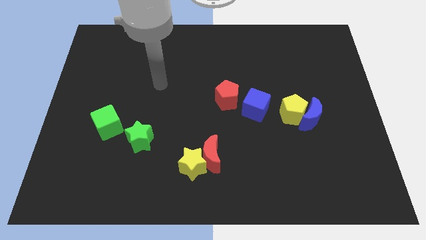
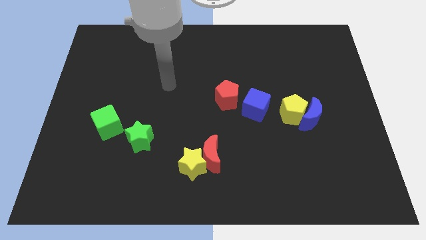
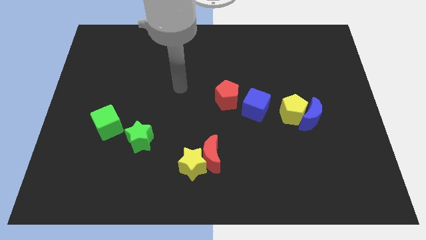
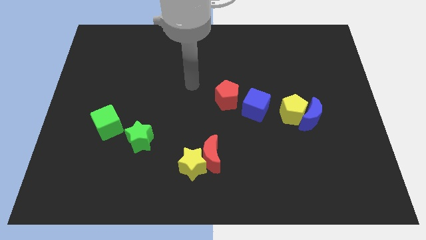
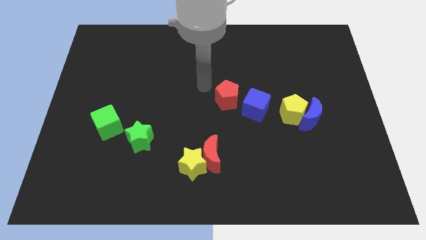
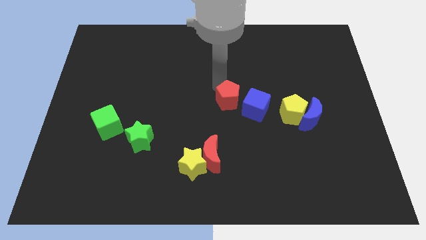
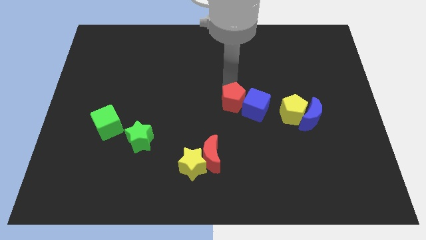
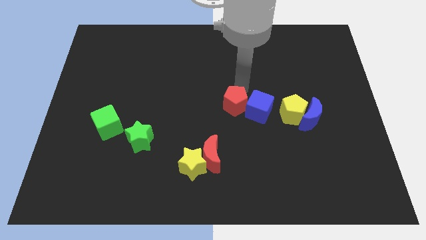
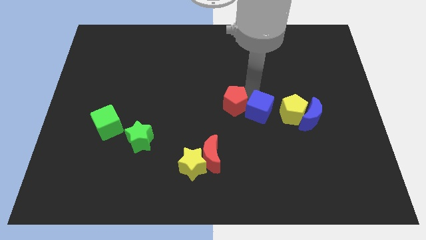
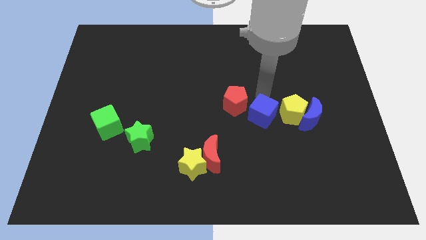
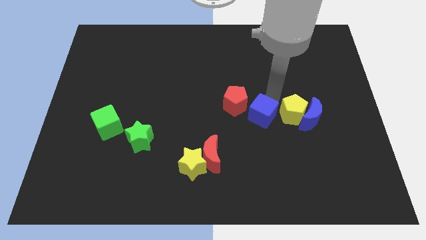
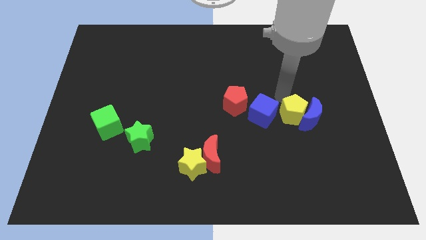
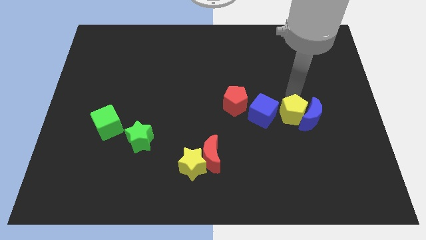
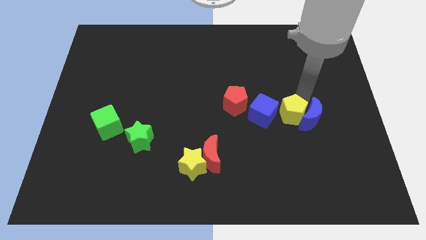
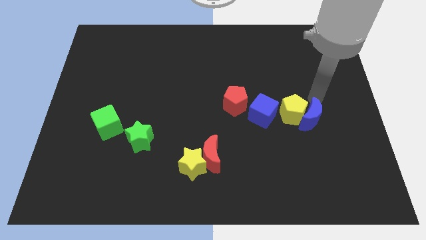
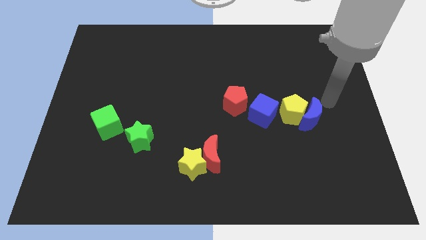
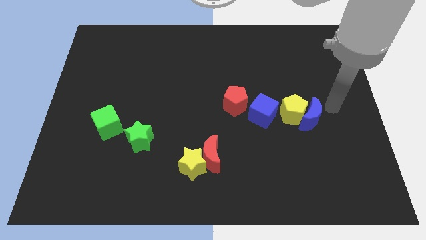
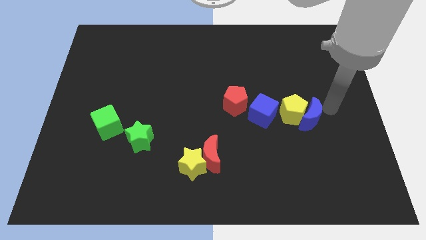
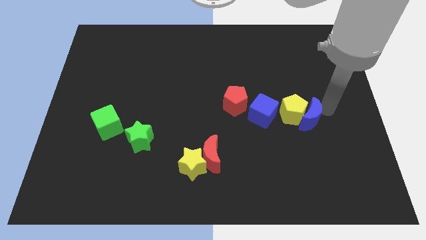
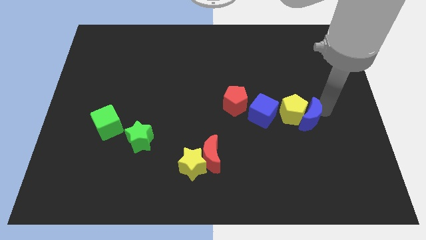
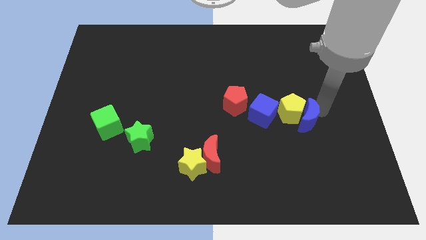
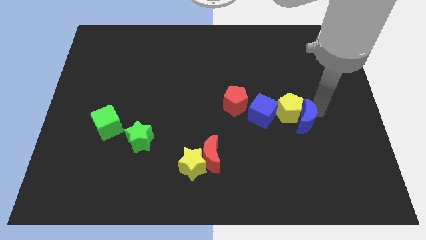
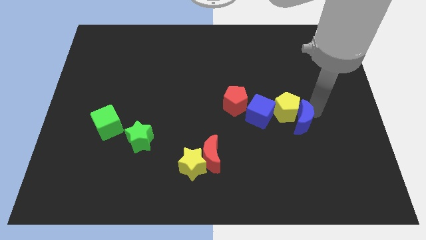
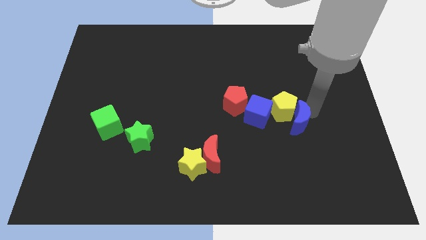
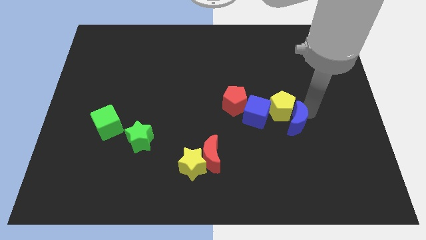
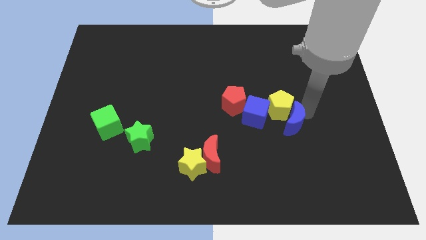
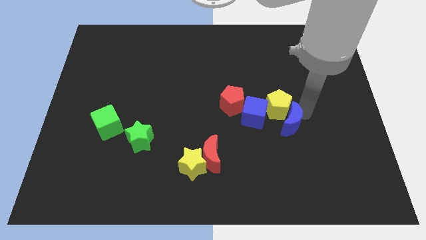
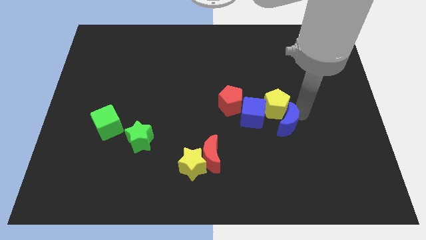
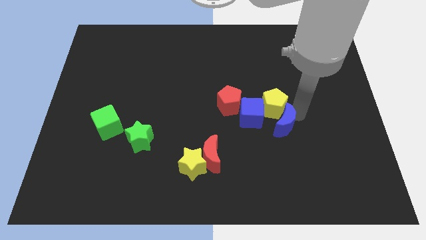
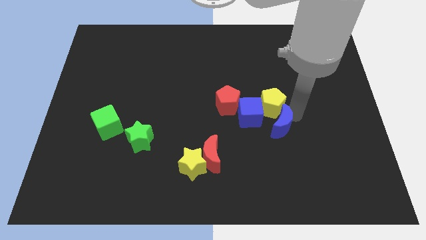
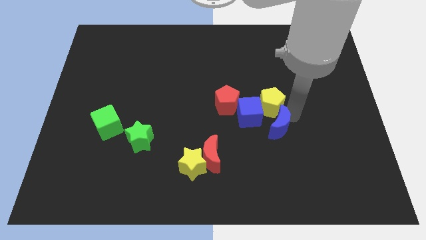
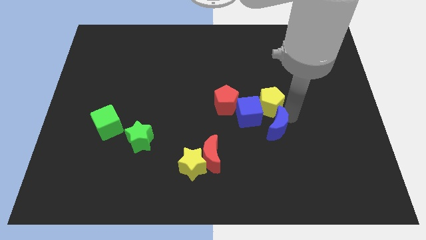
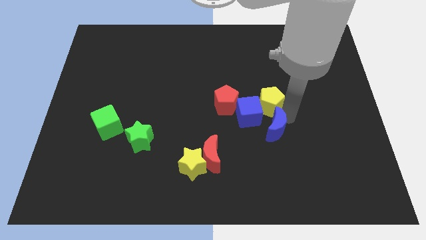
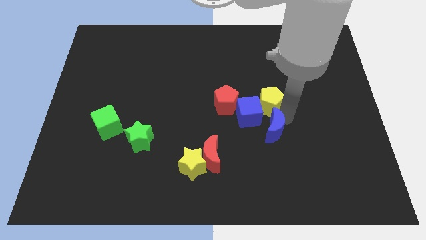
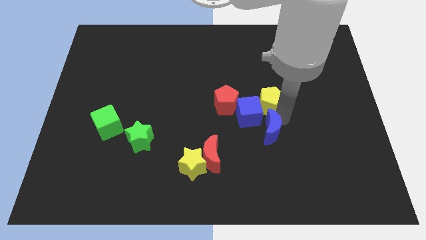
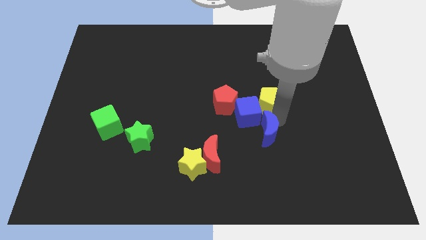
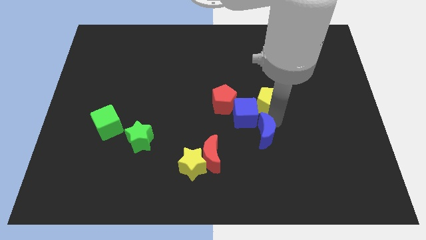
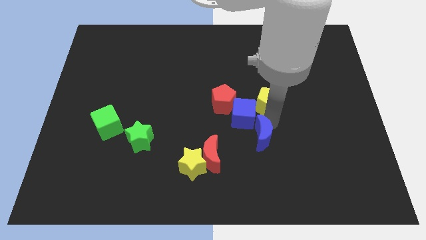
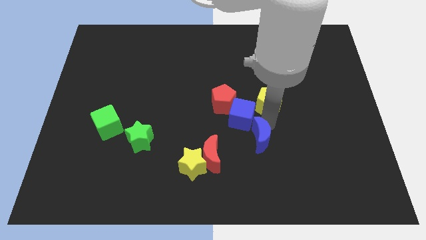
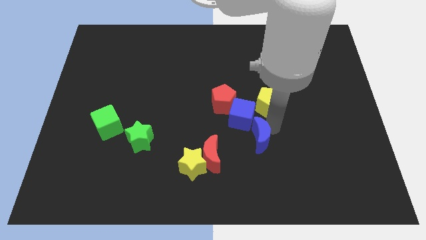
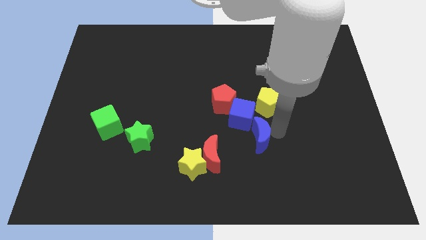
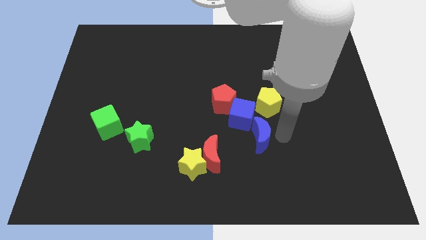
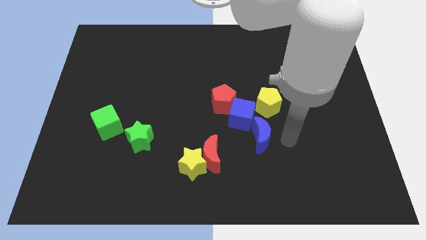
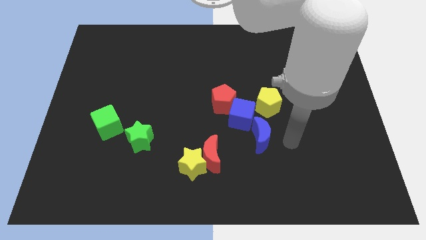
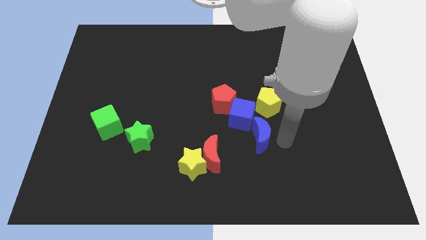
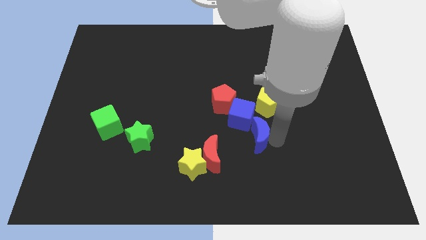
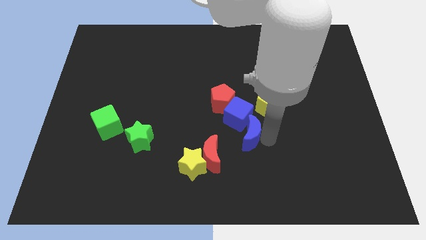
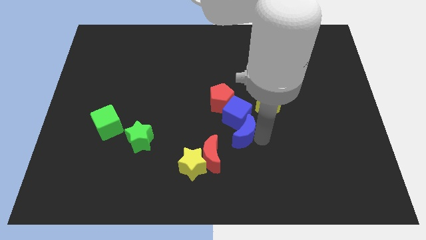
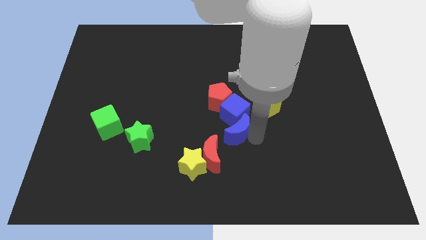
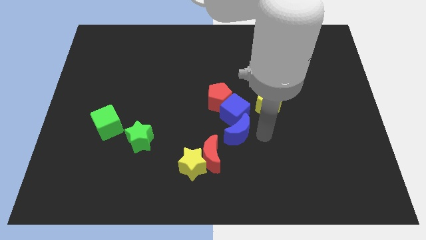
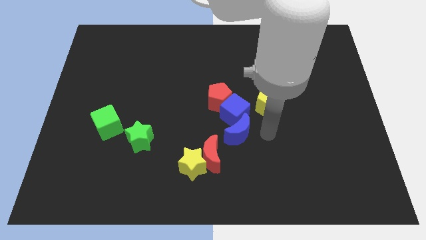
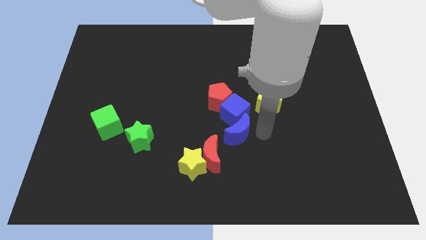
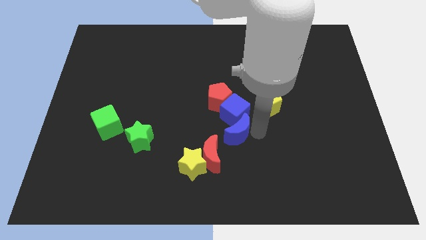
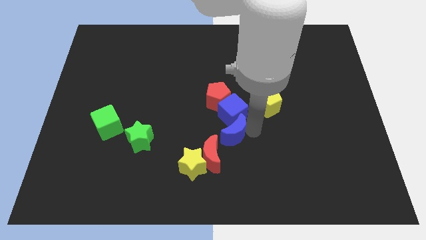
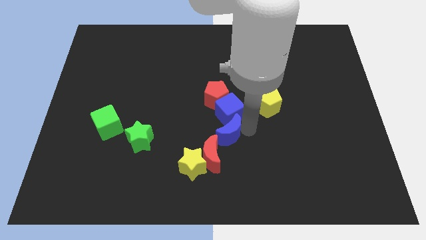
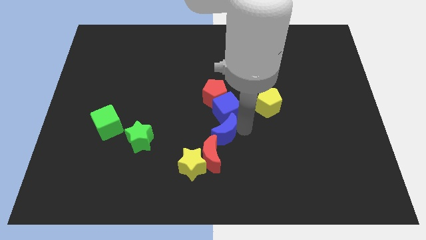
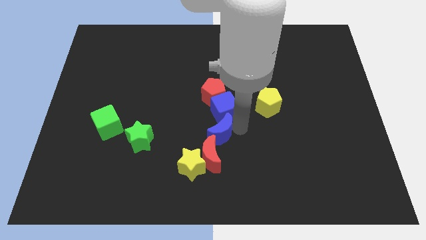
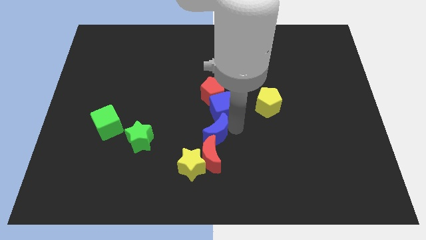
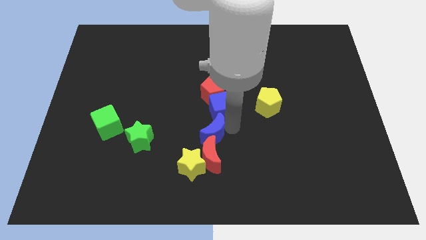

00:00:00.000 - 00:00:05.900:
slide the blue moon diagonally up and to the left of the red moon

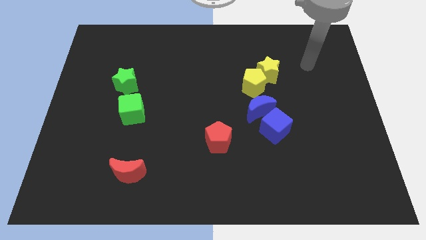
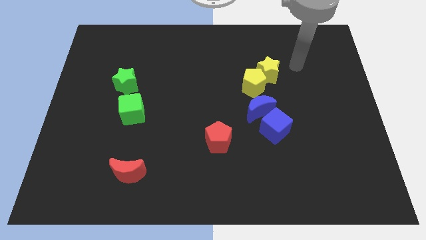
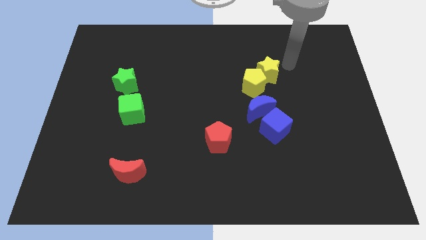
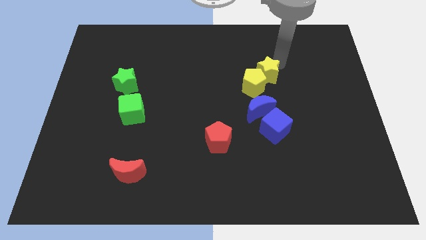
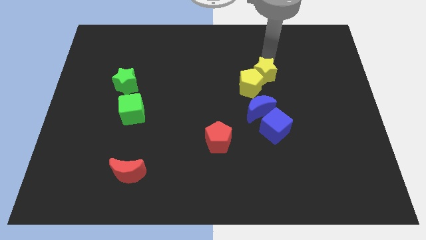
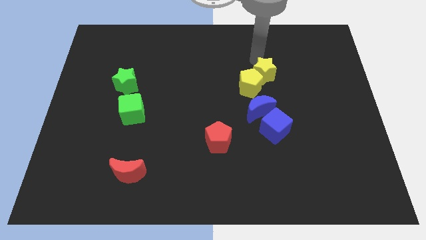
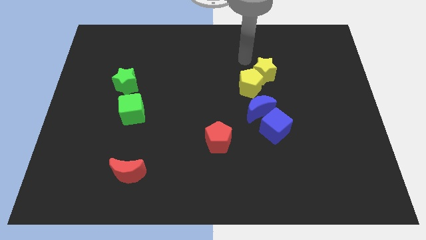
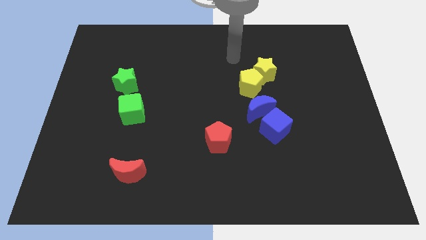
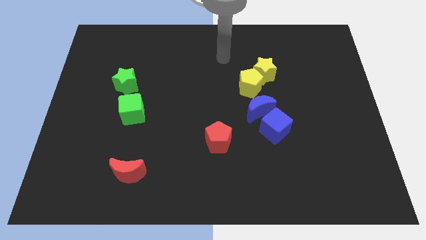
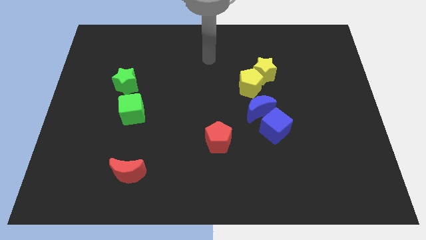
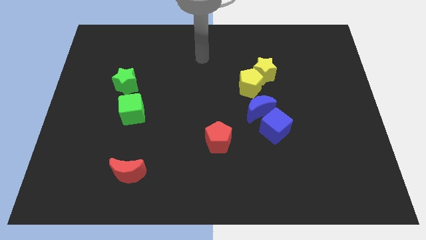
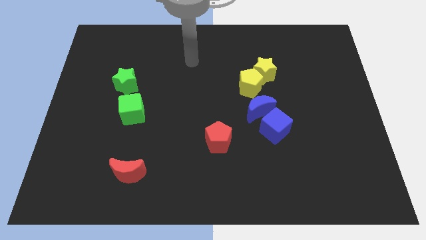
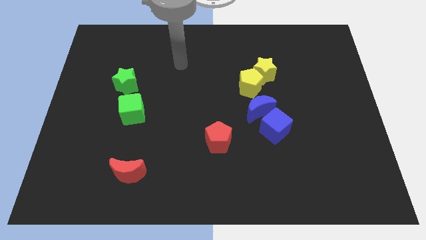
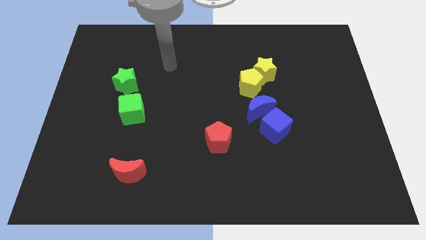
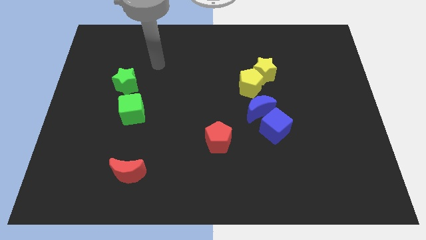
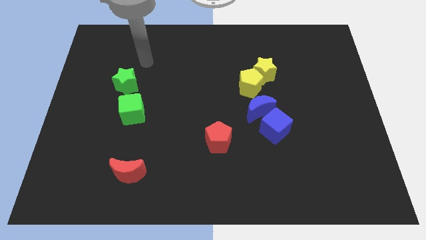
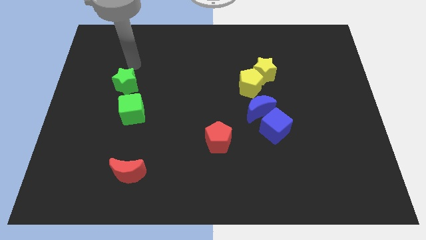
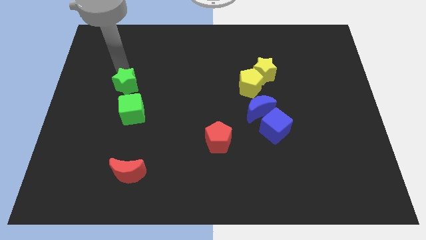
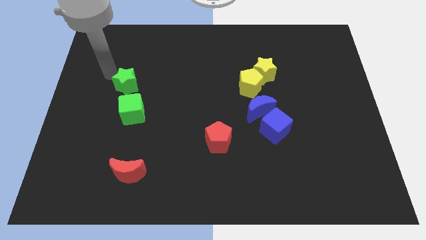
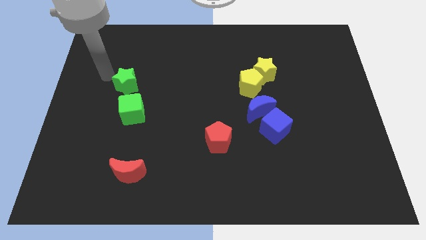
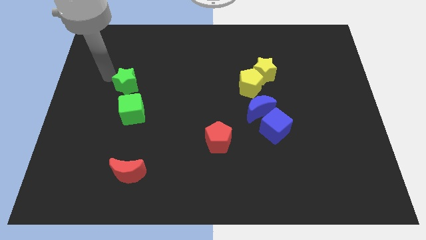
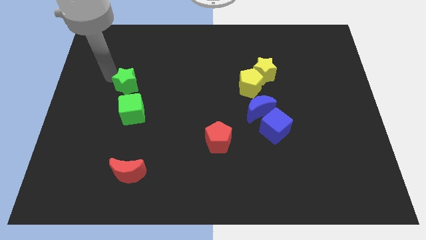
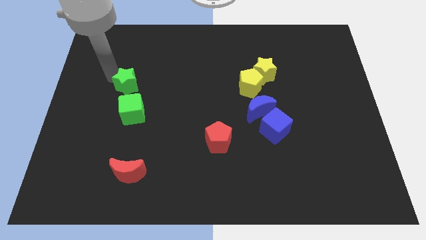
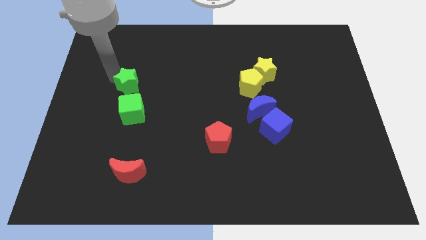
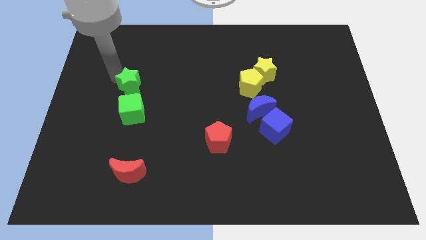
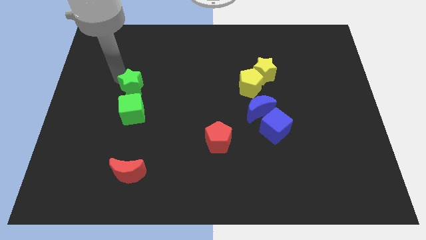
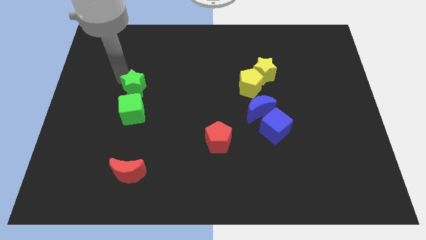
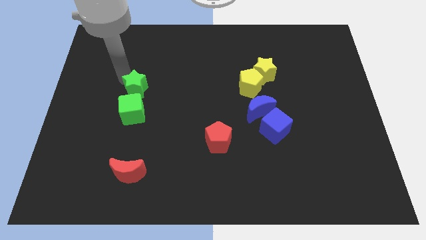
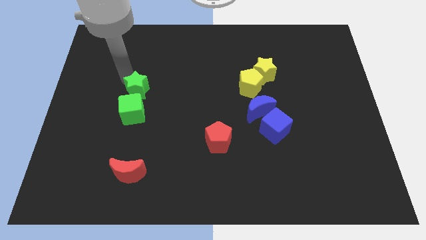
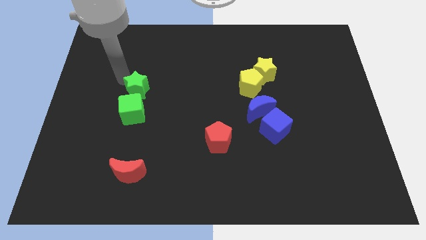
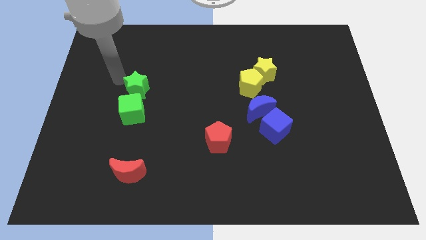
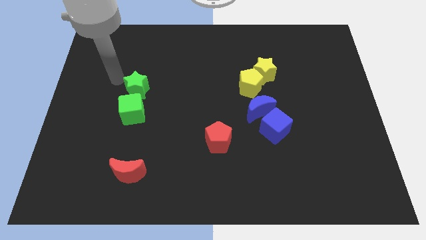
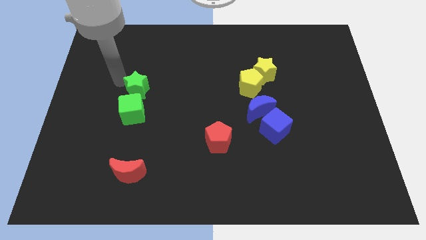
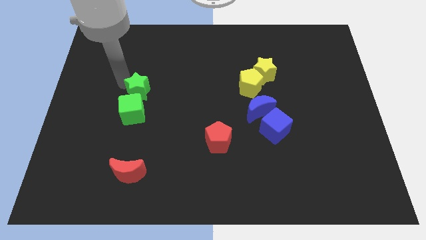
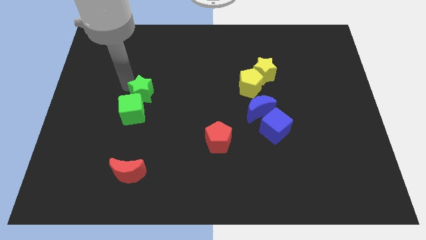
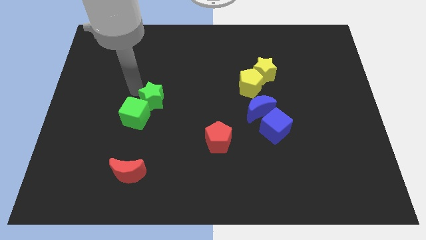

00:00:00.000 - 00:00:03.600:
slide the green star to the right of the green cube
